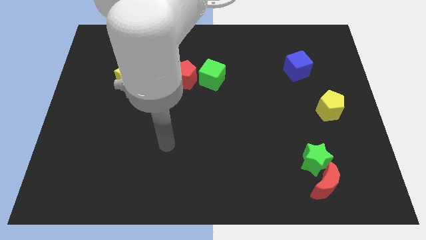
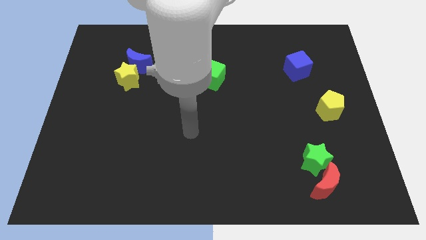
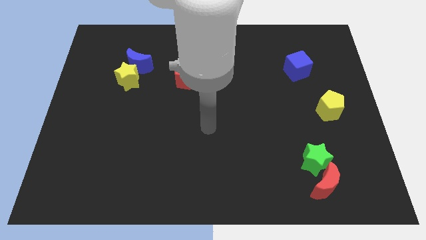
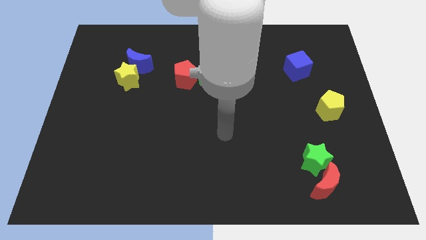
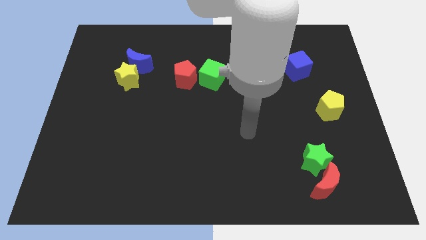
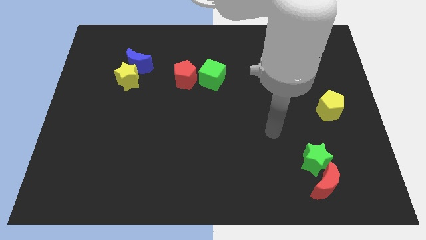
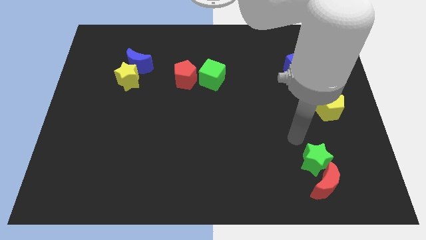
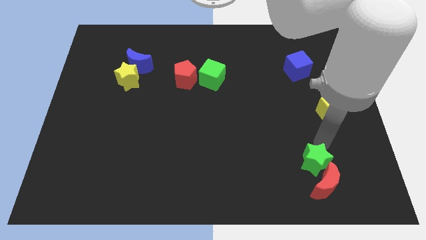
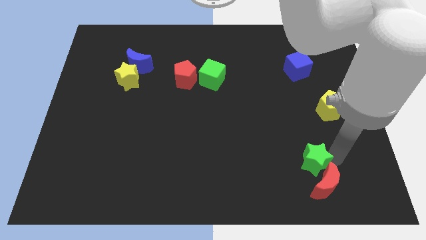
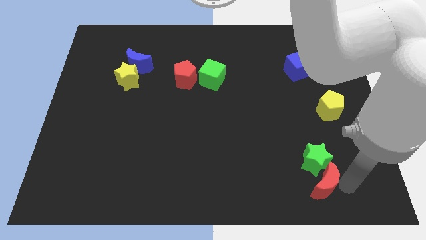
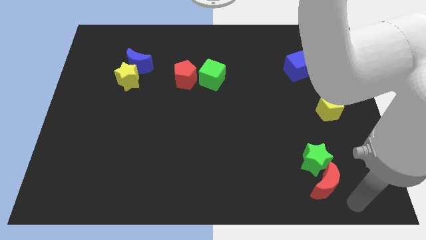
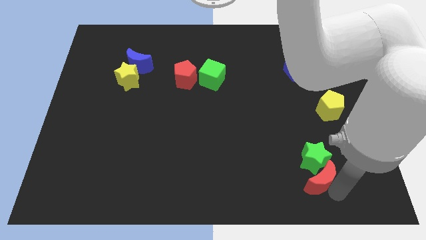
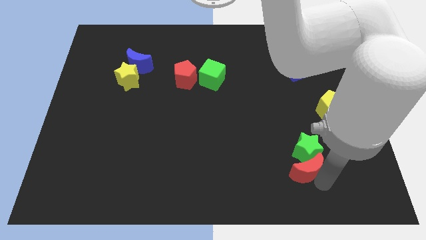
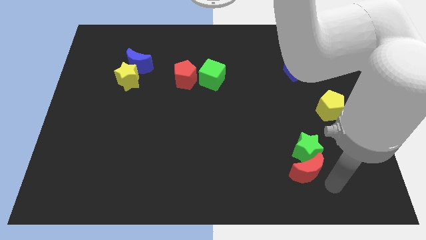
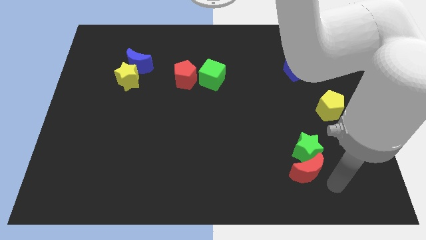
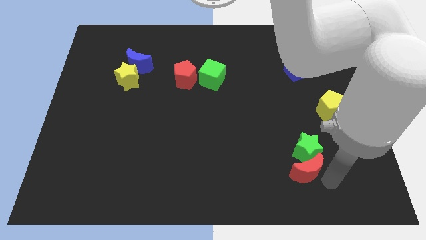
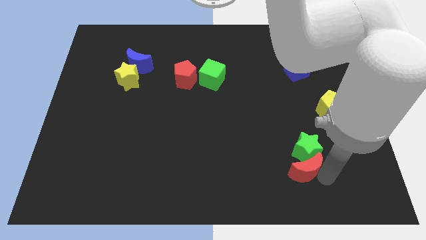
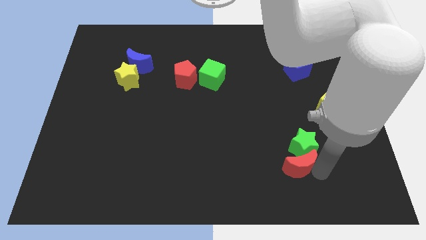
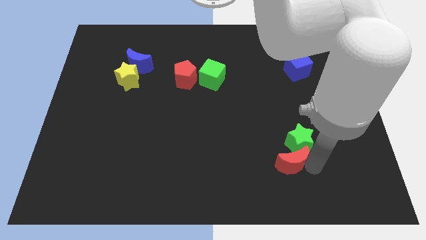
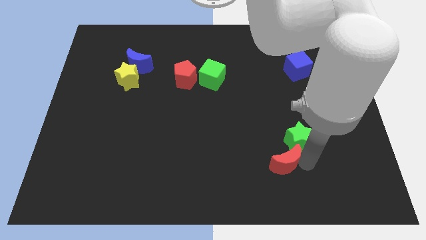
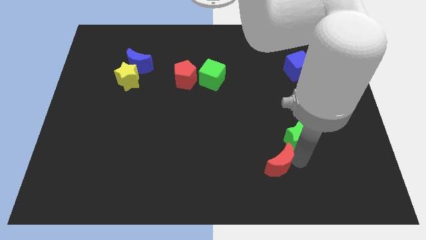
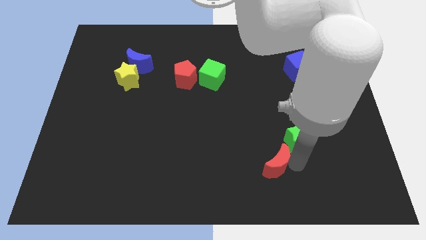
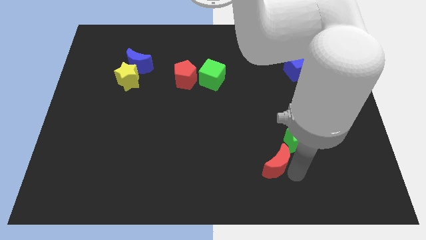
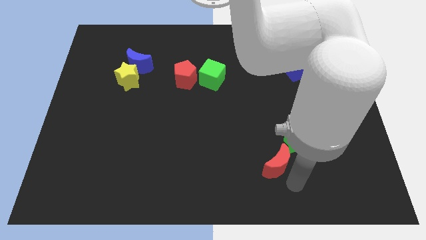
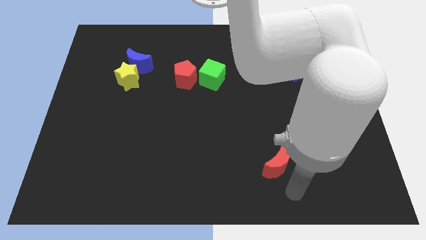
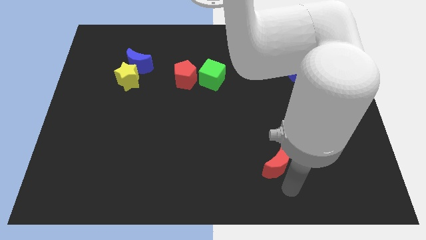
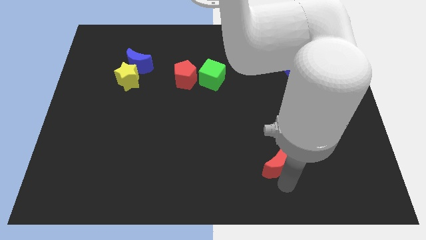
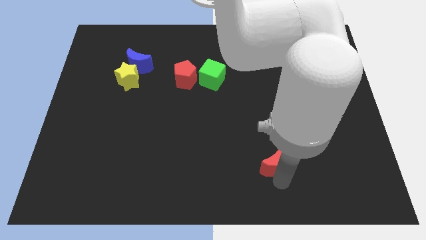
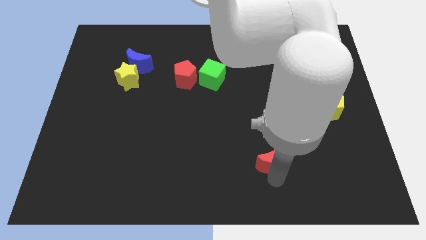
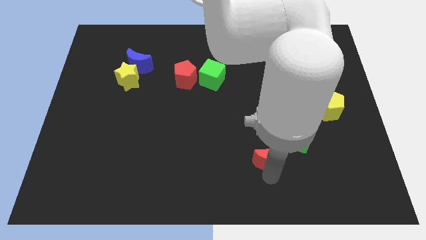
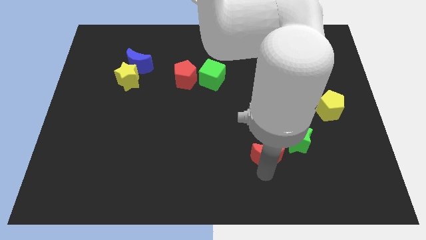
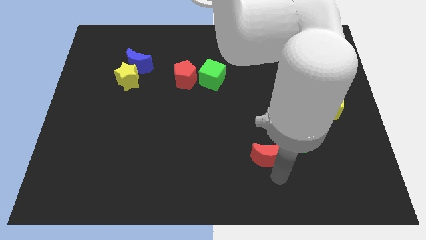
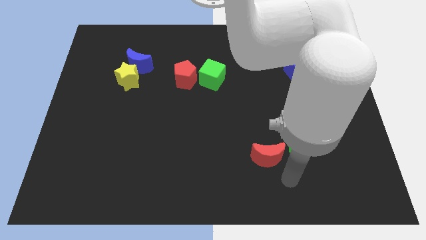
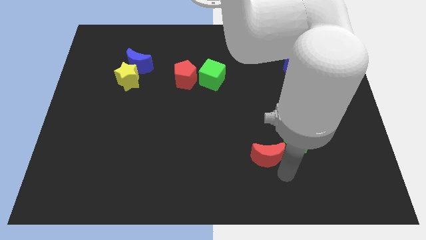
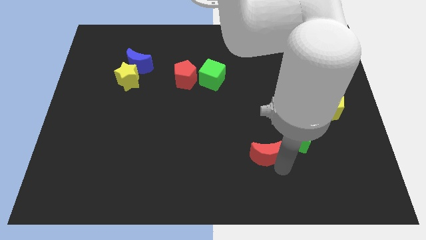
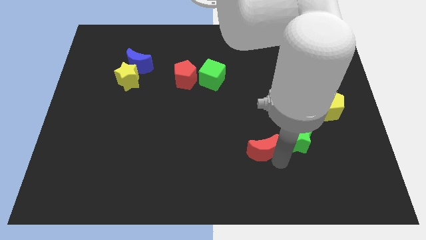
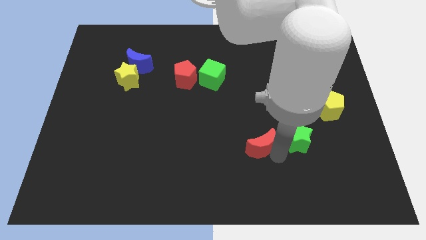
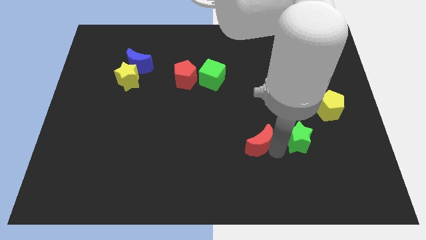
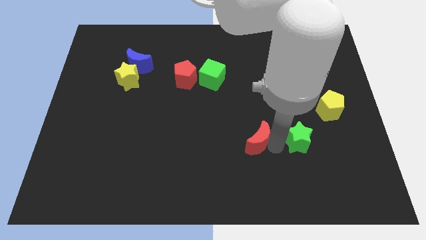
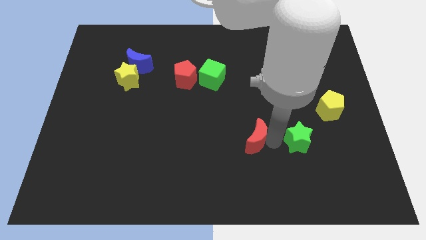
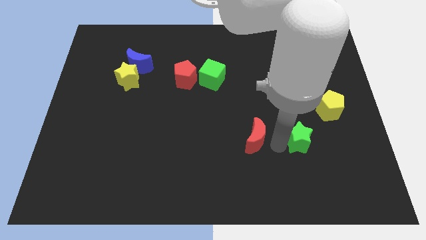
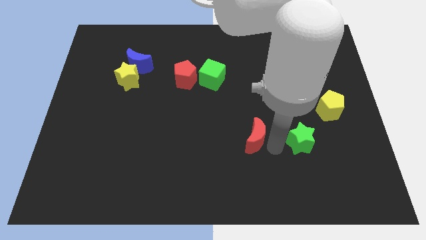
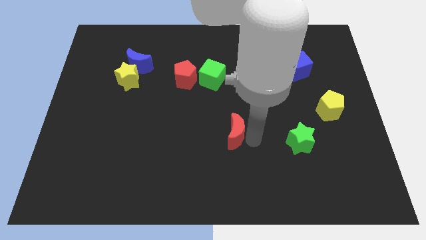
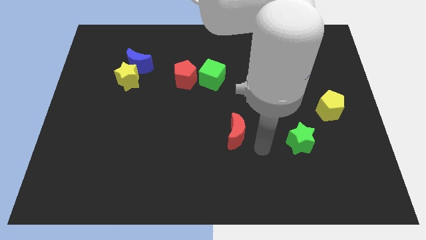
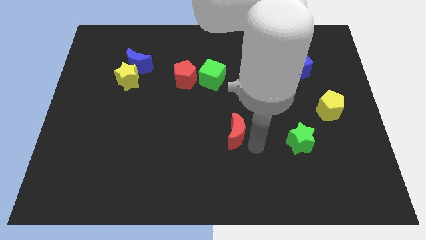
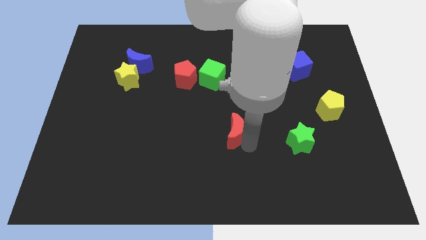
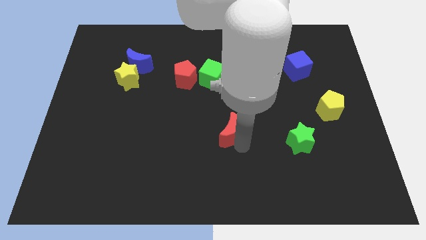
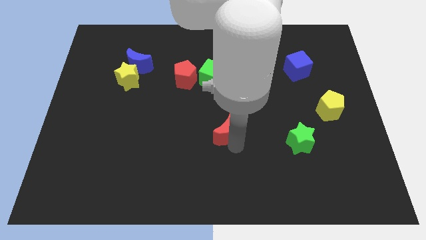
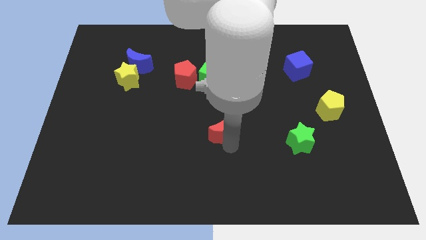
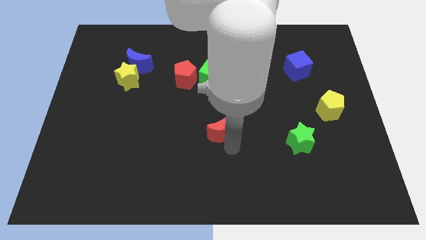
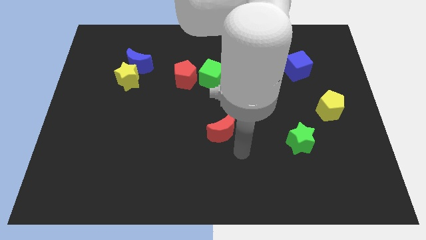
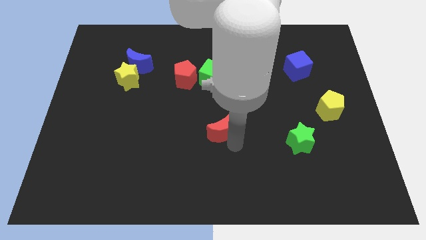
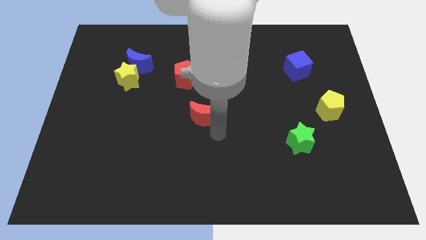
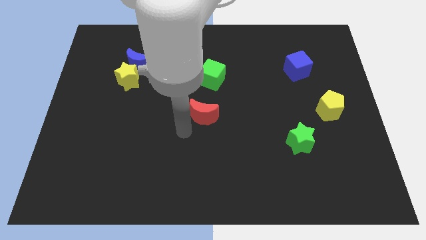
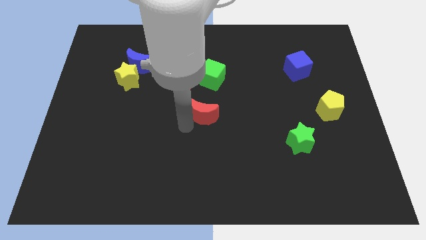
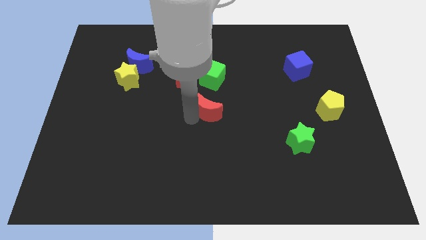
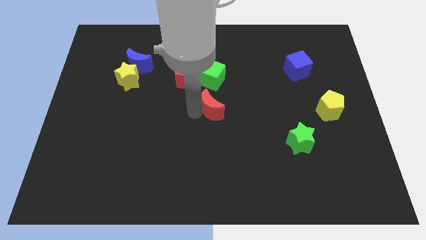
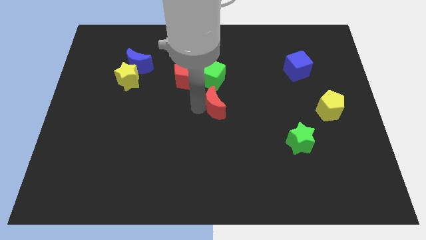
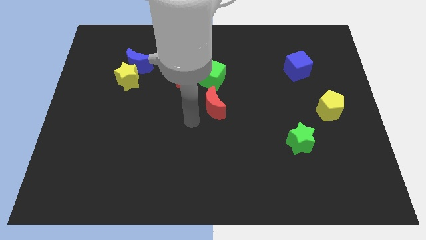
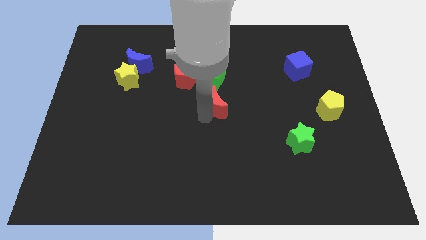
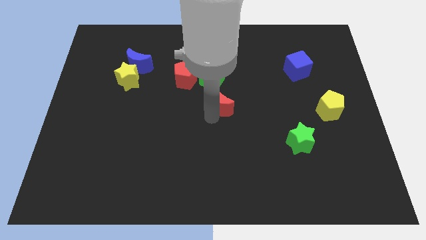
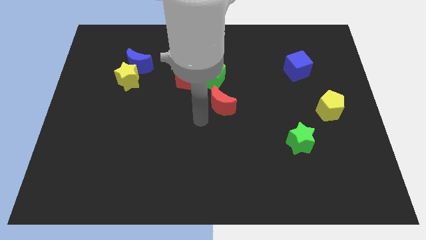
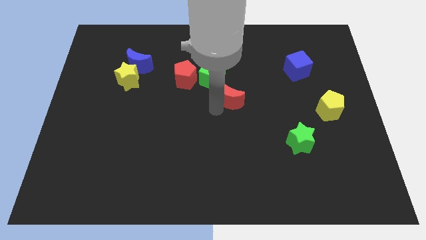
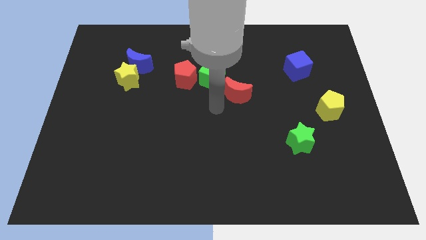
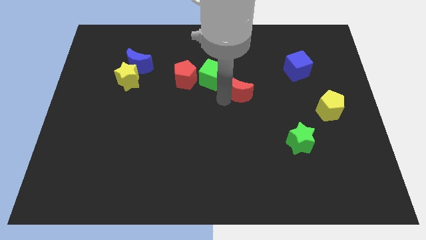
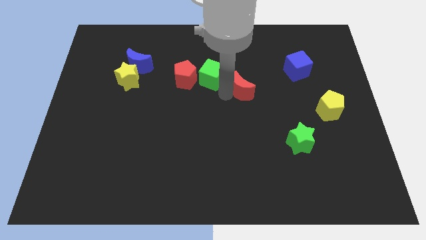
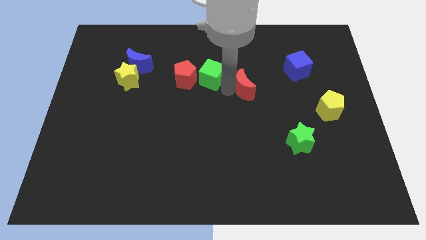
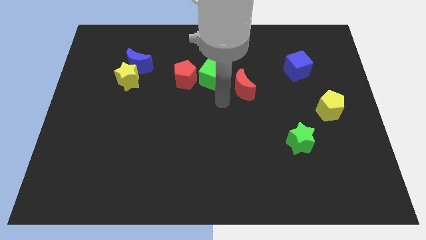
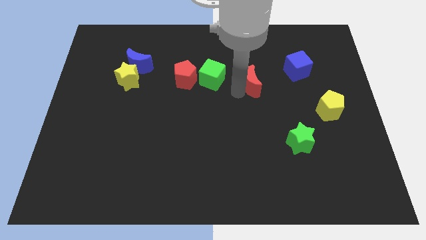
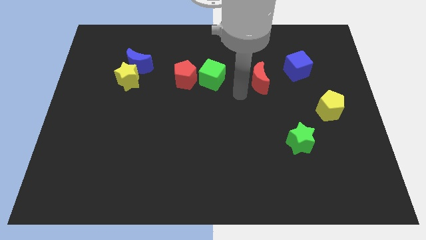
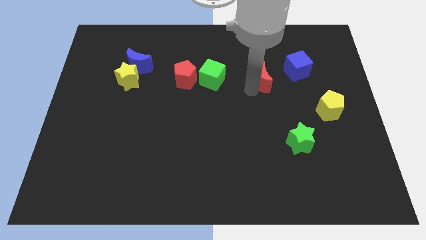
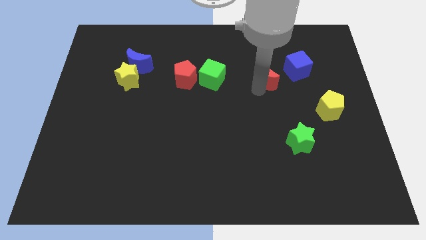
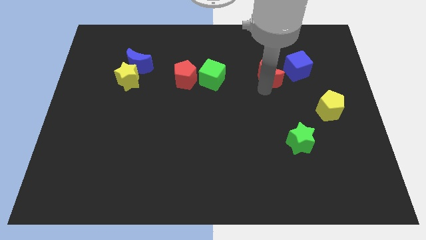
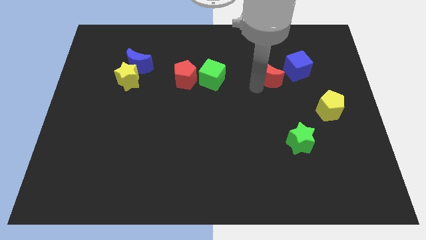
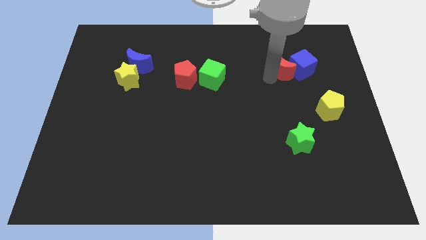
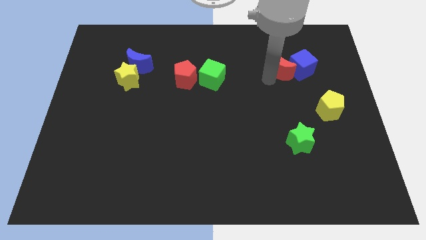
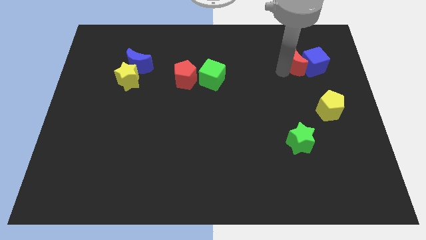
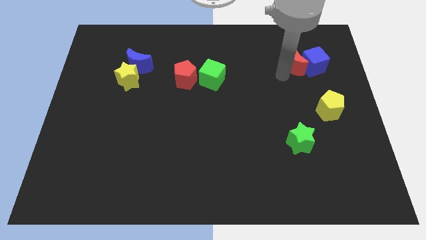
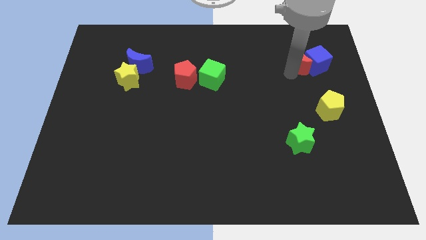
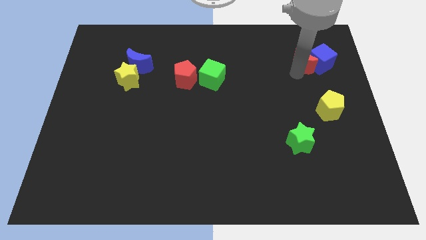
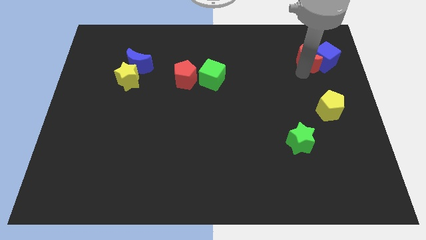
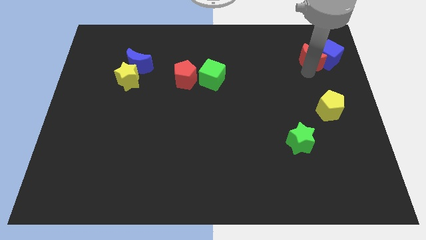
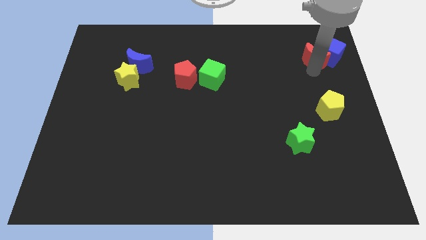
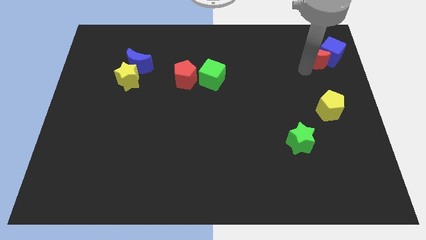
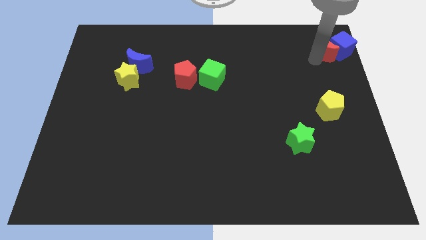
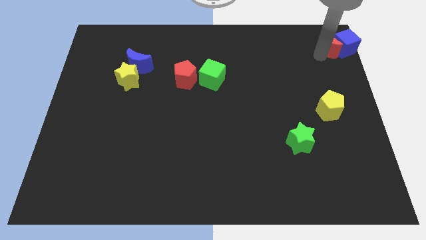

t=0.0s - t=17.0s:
put the red moon to the top right of the board
